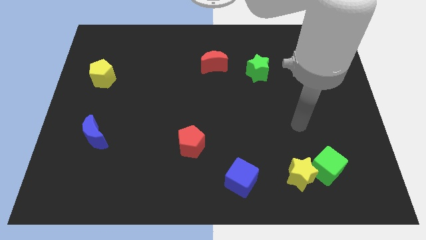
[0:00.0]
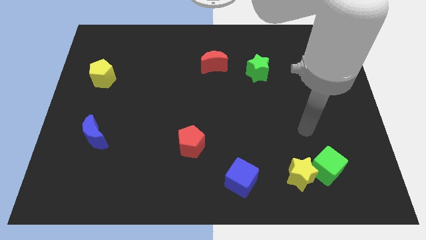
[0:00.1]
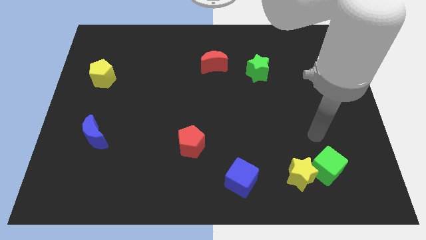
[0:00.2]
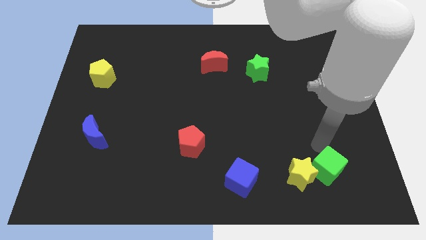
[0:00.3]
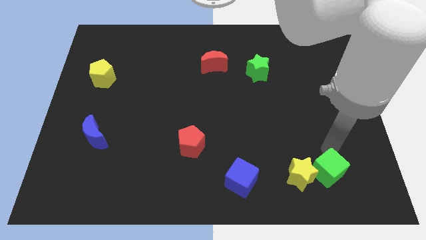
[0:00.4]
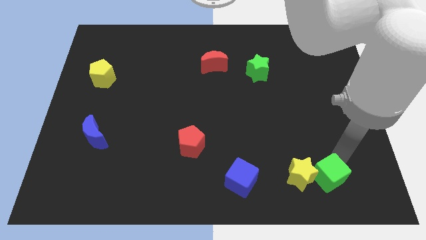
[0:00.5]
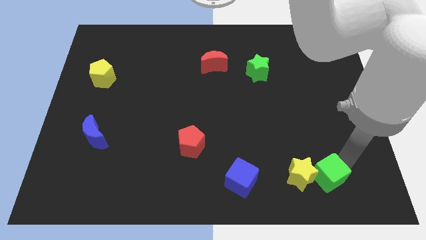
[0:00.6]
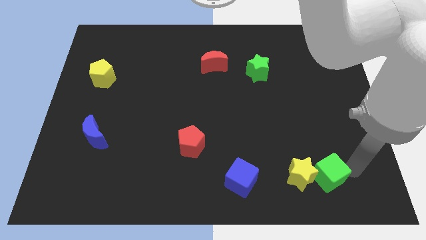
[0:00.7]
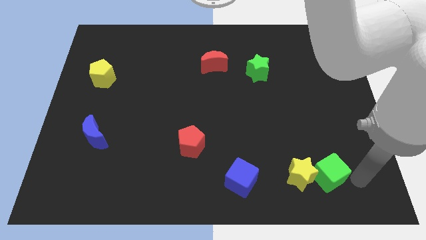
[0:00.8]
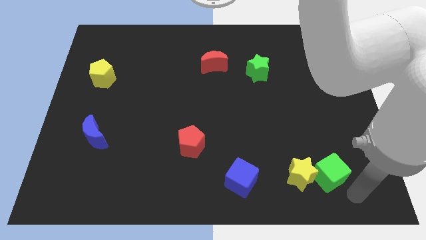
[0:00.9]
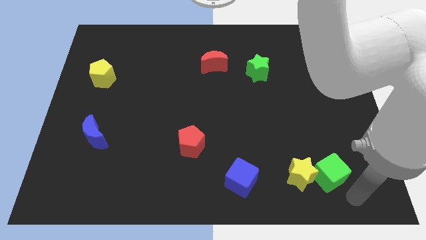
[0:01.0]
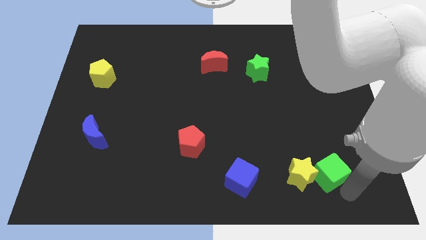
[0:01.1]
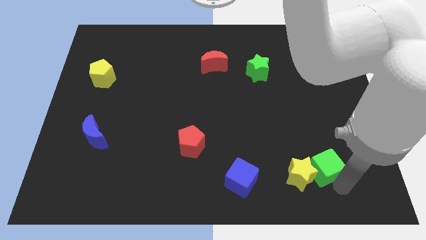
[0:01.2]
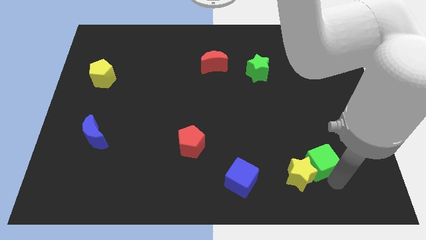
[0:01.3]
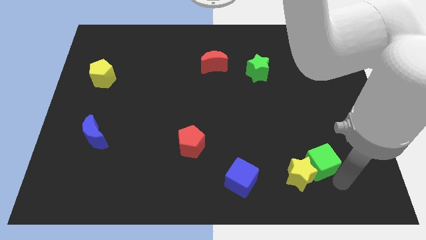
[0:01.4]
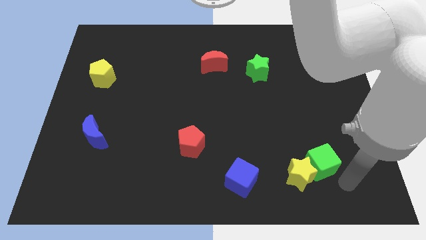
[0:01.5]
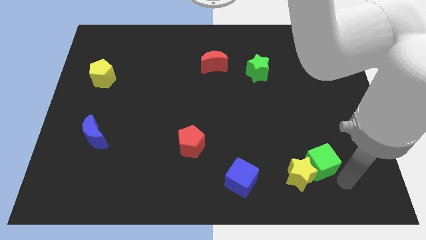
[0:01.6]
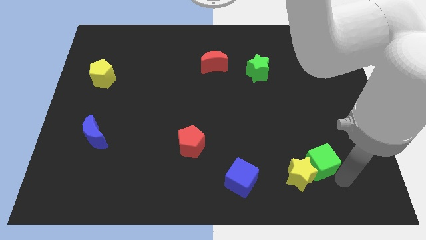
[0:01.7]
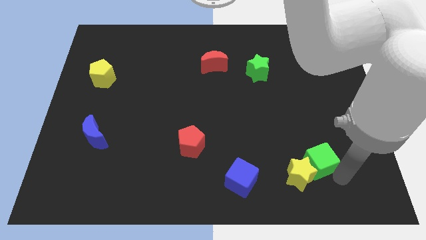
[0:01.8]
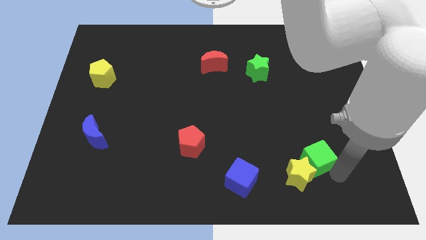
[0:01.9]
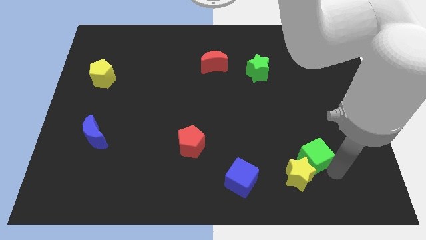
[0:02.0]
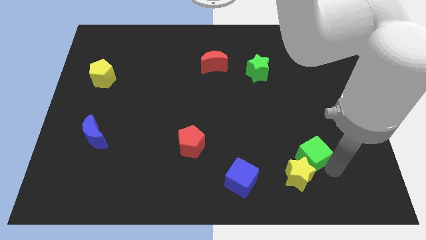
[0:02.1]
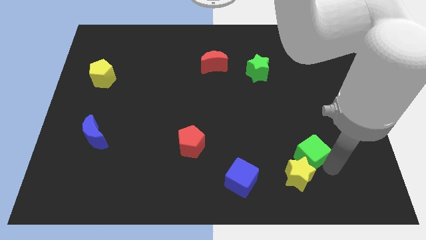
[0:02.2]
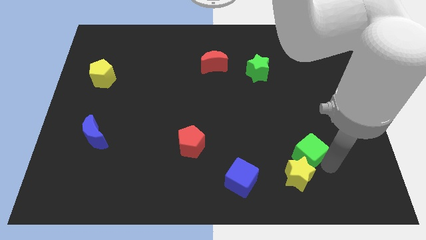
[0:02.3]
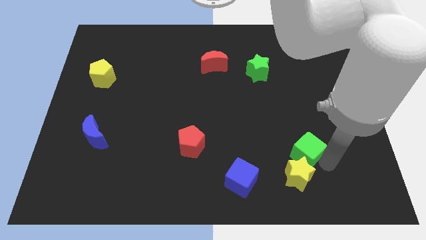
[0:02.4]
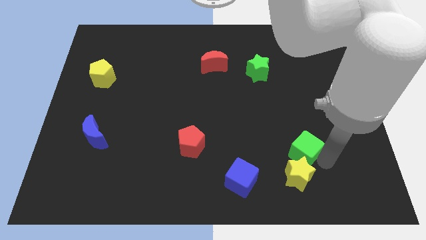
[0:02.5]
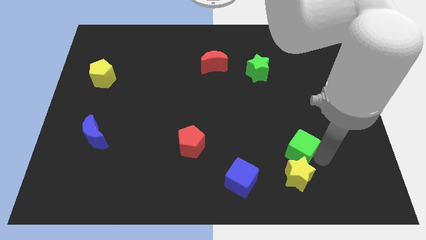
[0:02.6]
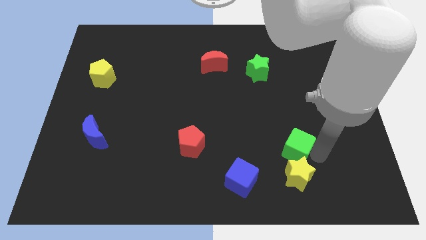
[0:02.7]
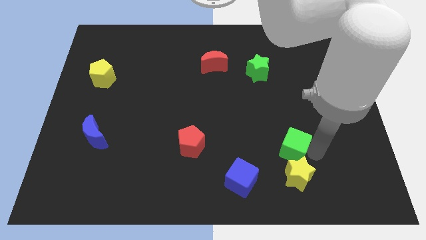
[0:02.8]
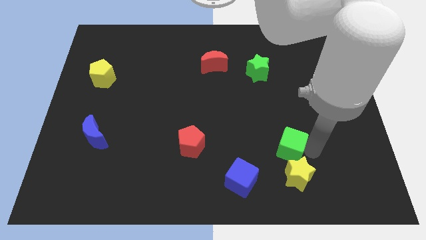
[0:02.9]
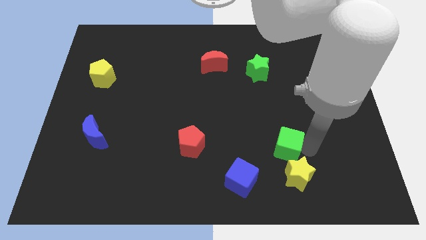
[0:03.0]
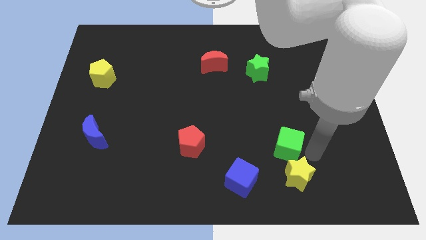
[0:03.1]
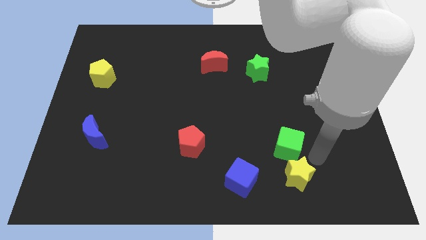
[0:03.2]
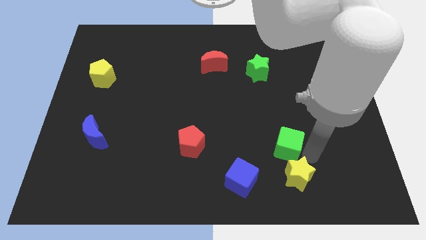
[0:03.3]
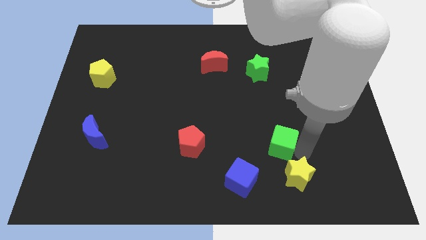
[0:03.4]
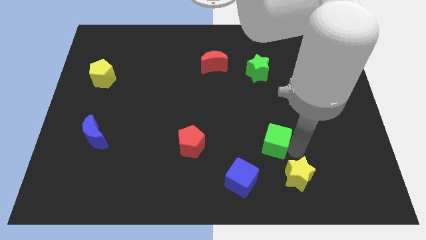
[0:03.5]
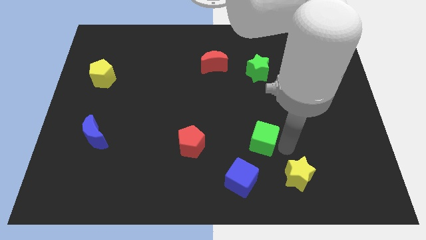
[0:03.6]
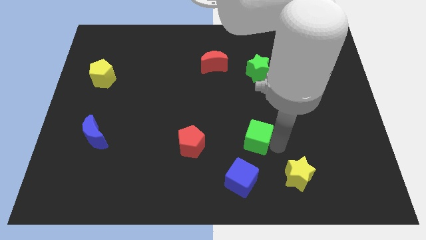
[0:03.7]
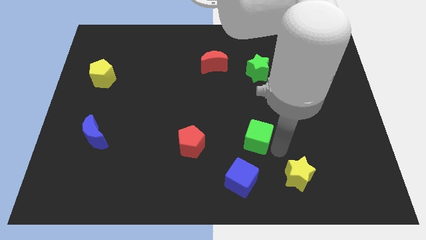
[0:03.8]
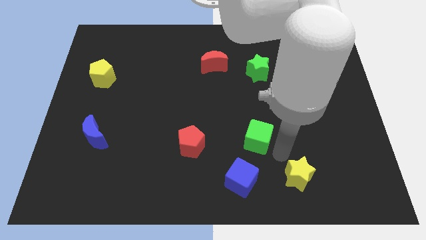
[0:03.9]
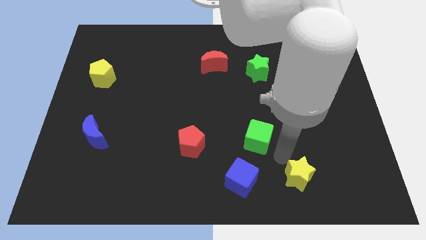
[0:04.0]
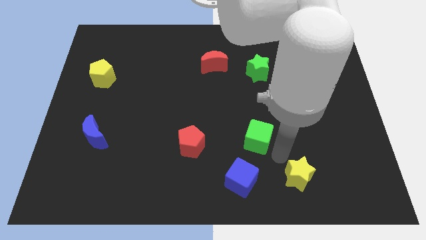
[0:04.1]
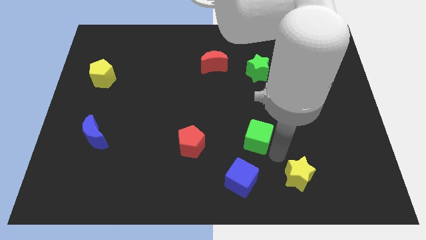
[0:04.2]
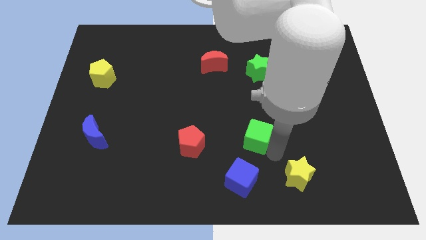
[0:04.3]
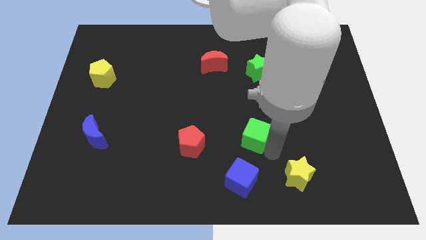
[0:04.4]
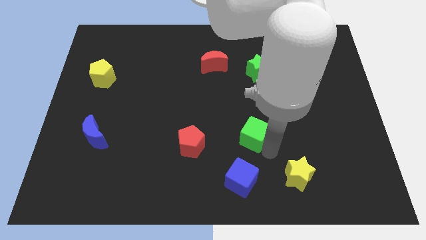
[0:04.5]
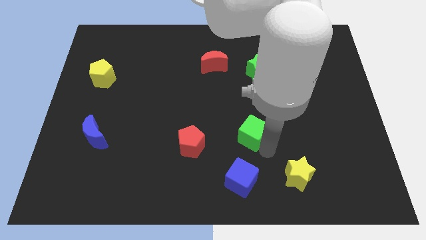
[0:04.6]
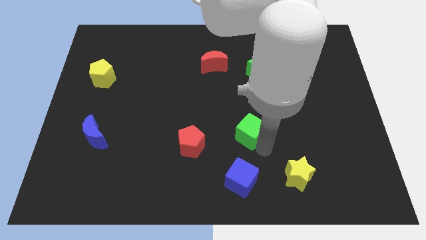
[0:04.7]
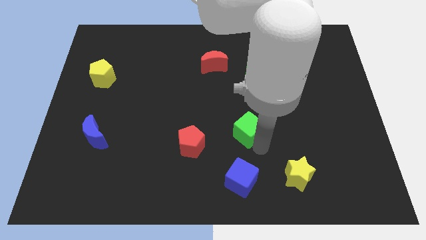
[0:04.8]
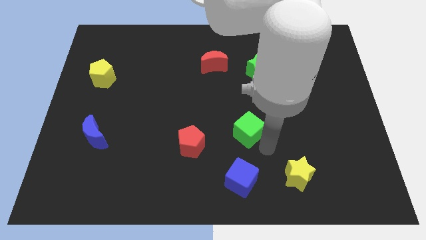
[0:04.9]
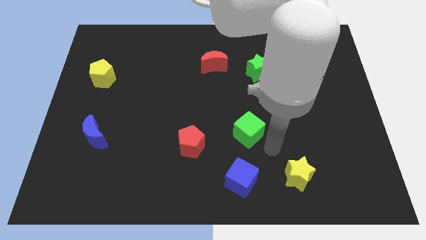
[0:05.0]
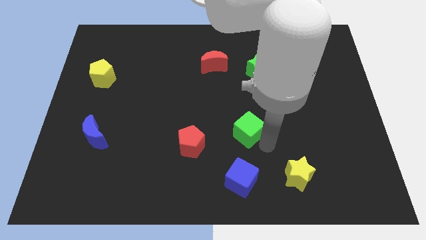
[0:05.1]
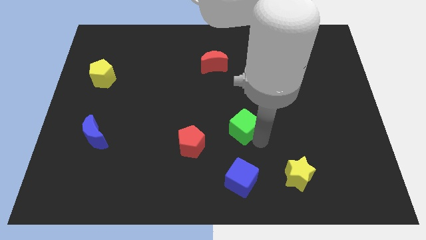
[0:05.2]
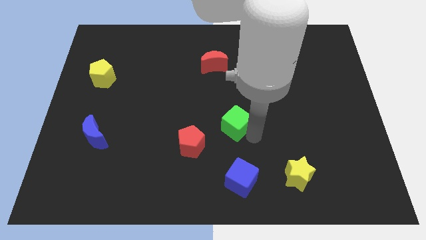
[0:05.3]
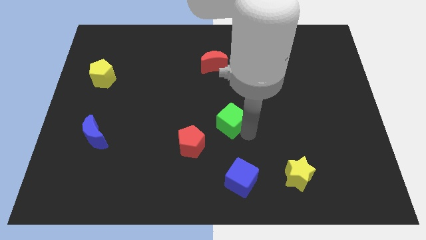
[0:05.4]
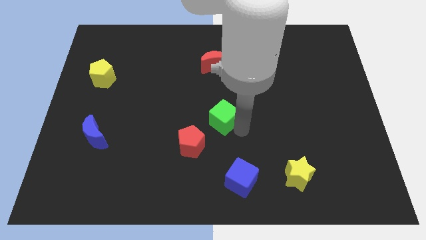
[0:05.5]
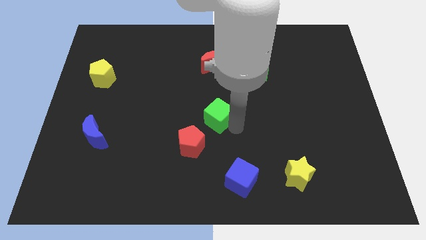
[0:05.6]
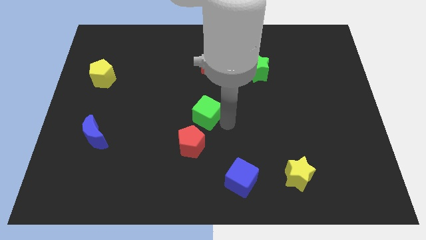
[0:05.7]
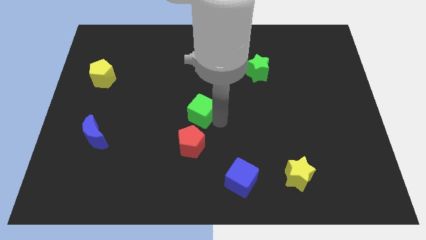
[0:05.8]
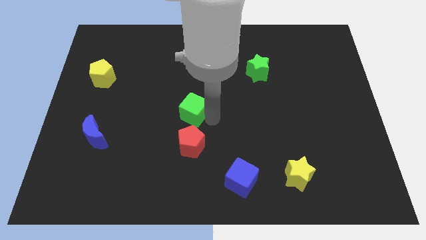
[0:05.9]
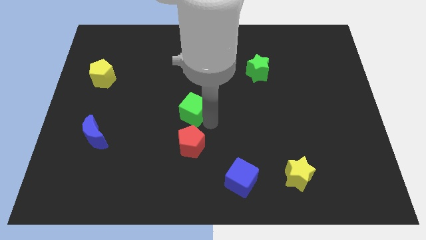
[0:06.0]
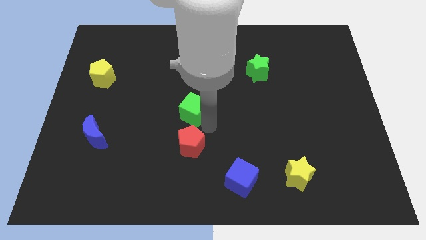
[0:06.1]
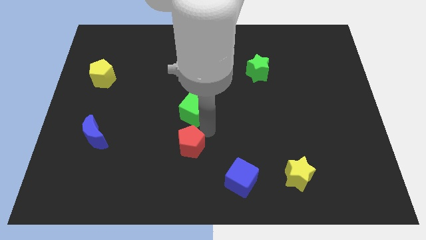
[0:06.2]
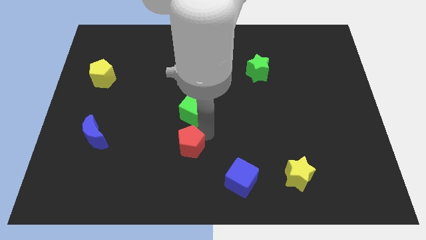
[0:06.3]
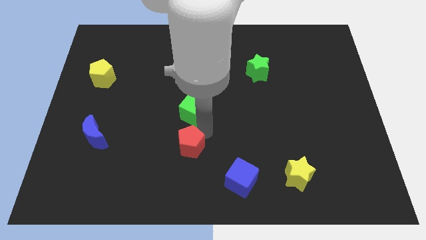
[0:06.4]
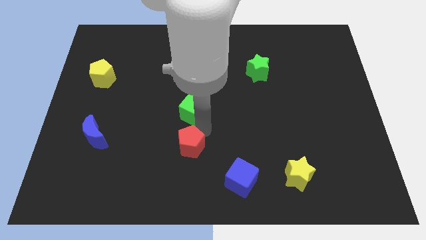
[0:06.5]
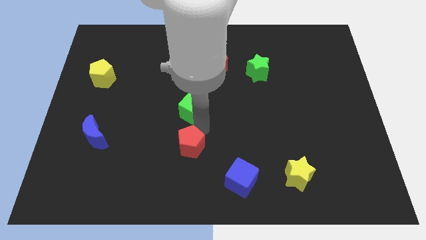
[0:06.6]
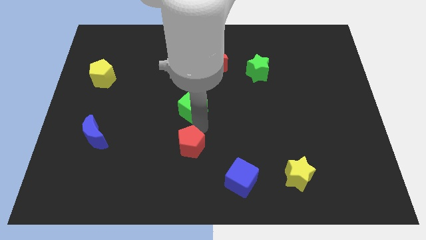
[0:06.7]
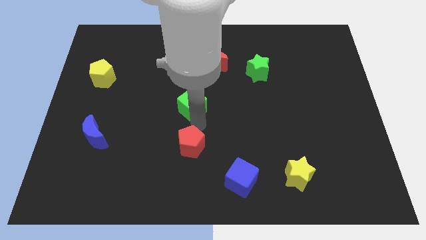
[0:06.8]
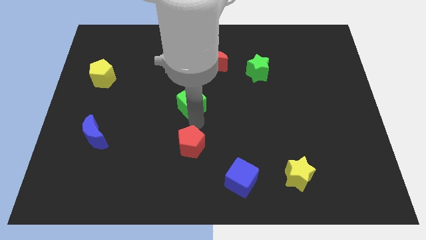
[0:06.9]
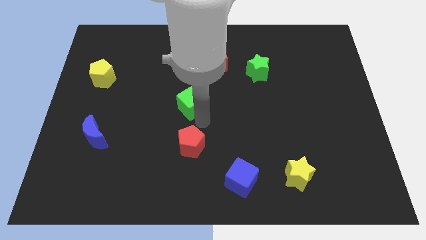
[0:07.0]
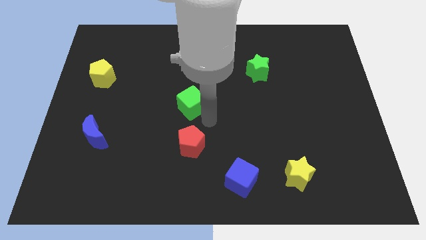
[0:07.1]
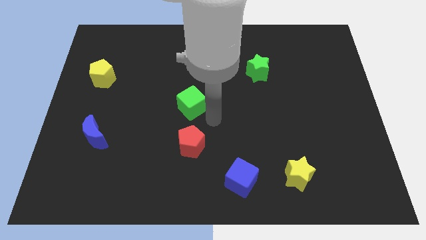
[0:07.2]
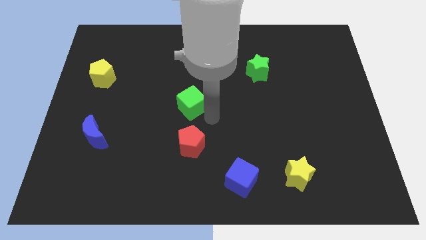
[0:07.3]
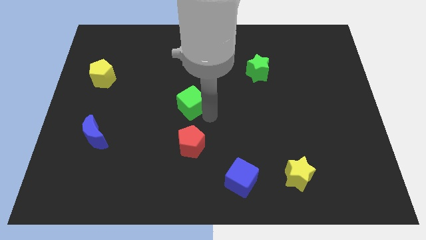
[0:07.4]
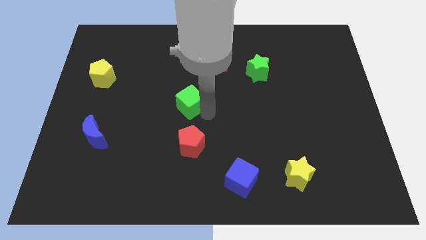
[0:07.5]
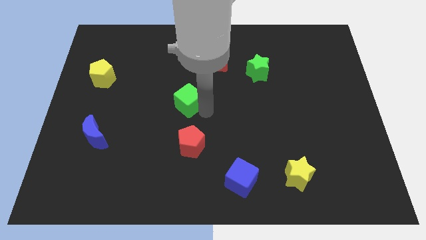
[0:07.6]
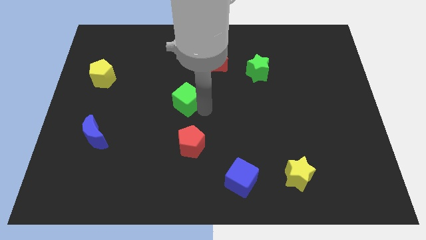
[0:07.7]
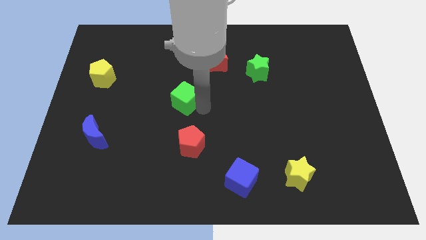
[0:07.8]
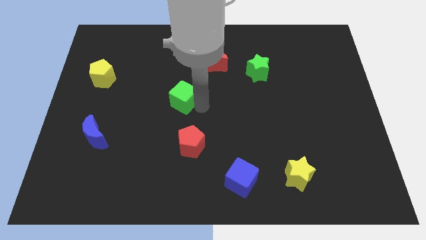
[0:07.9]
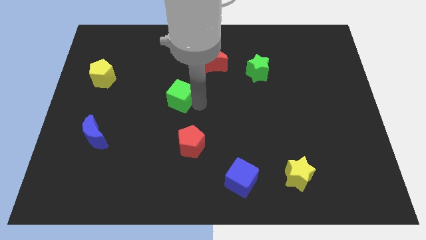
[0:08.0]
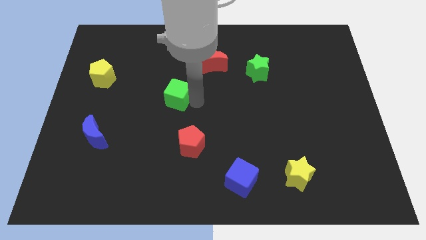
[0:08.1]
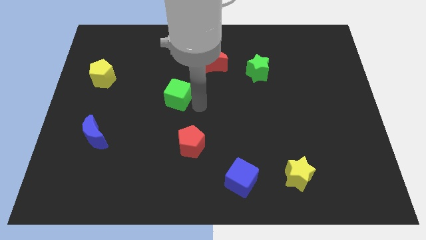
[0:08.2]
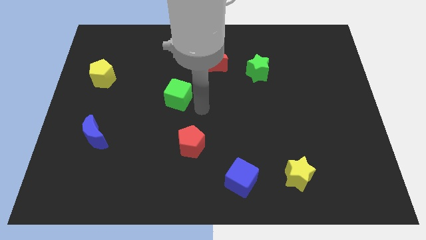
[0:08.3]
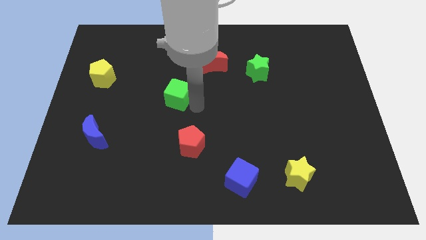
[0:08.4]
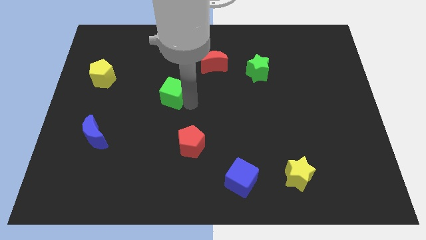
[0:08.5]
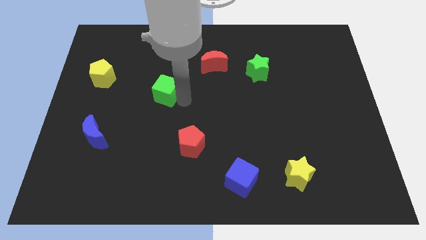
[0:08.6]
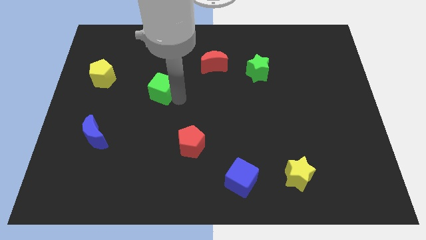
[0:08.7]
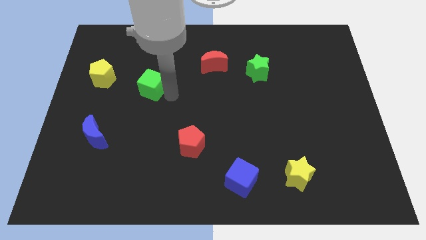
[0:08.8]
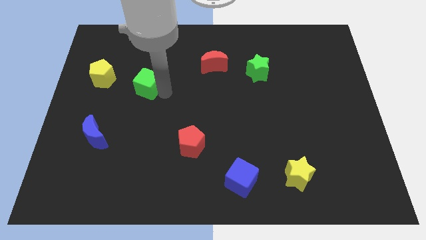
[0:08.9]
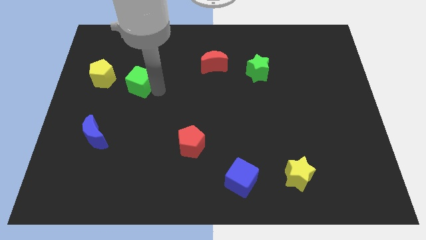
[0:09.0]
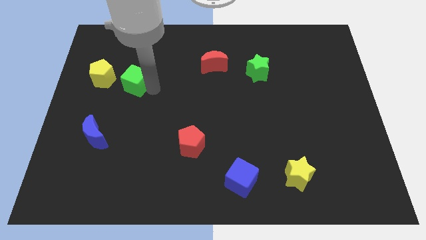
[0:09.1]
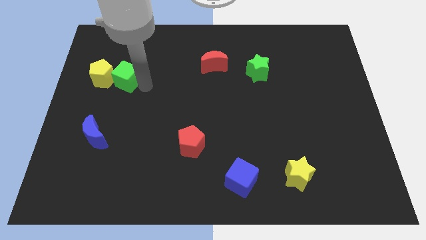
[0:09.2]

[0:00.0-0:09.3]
slide the green cube next to the yellow pentagon
